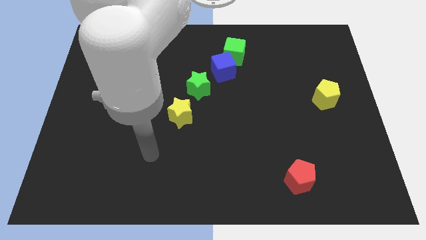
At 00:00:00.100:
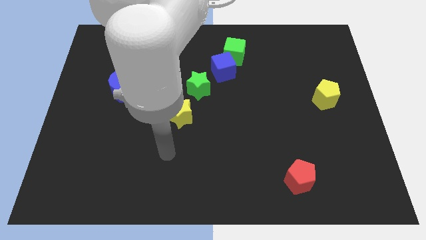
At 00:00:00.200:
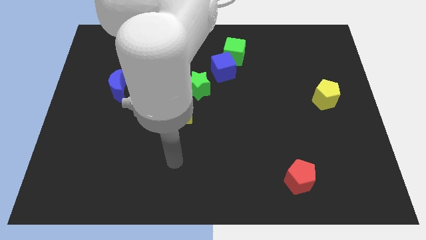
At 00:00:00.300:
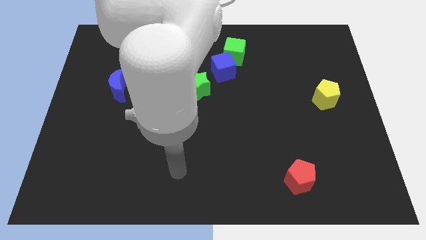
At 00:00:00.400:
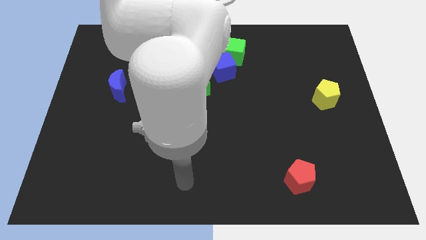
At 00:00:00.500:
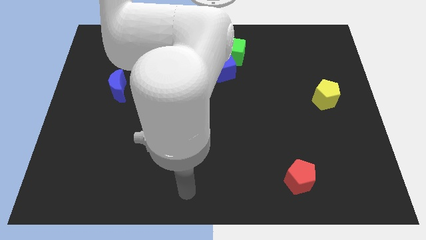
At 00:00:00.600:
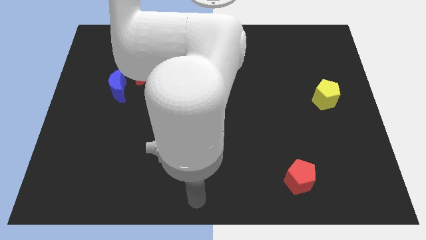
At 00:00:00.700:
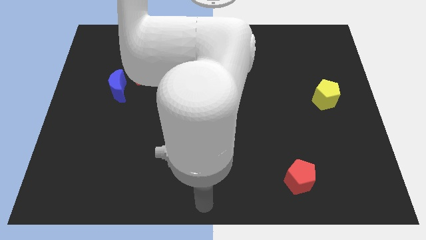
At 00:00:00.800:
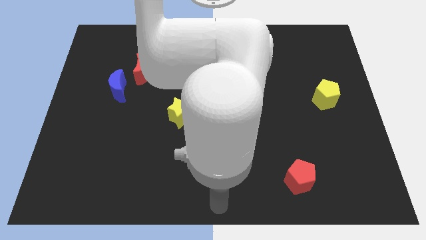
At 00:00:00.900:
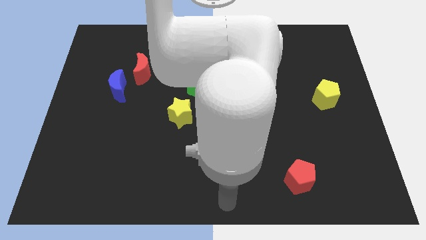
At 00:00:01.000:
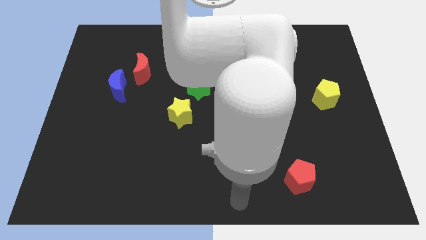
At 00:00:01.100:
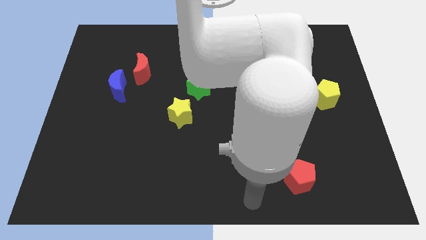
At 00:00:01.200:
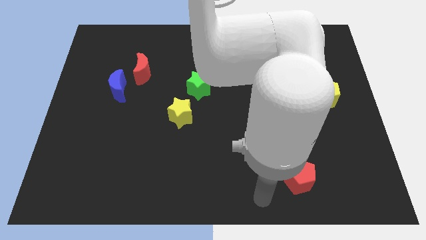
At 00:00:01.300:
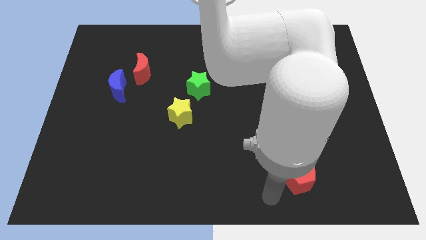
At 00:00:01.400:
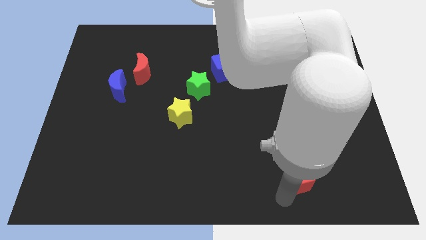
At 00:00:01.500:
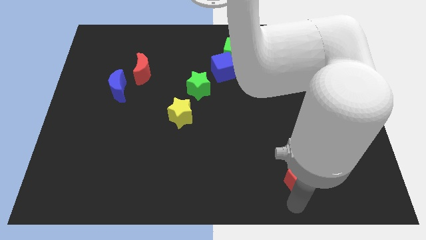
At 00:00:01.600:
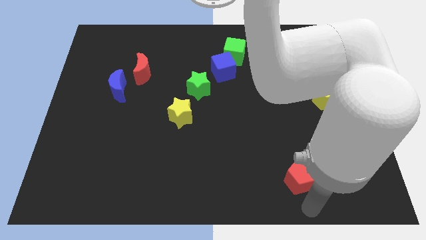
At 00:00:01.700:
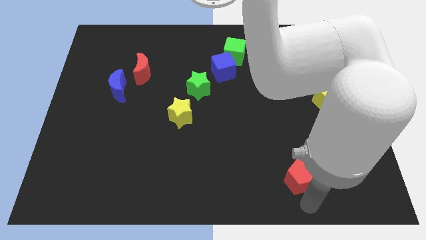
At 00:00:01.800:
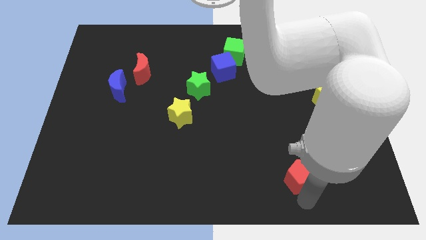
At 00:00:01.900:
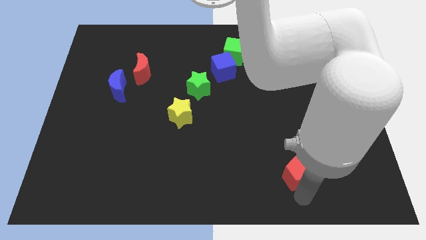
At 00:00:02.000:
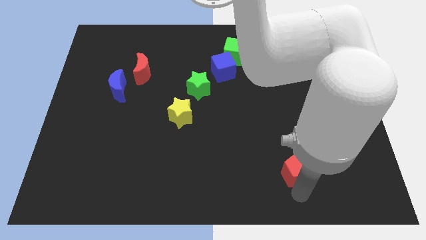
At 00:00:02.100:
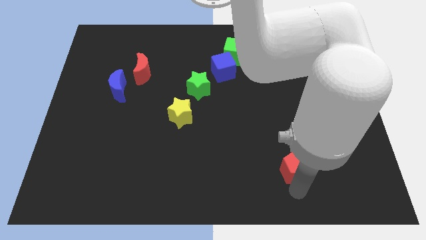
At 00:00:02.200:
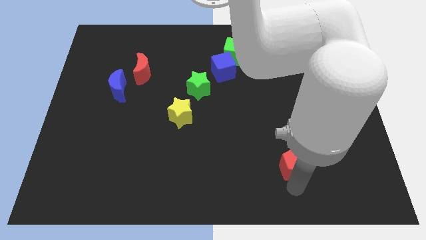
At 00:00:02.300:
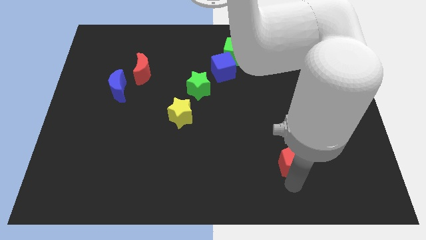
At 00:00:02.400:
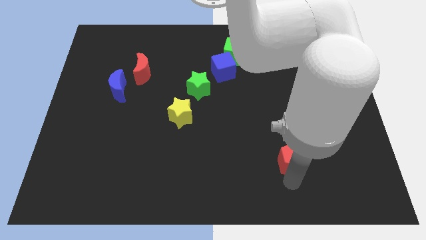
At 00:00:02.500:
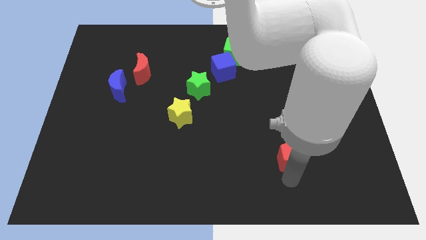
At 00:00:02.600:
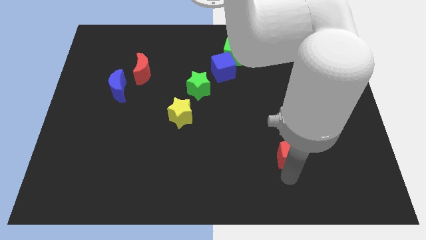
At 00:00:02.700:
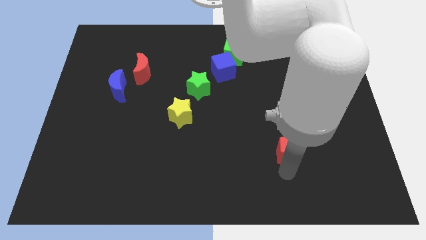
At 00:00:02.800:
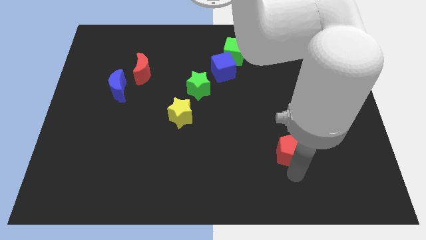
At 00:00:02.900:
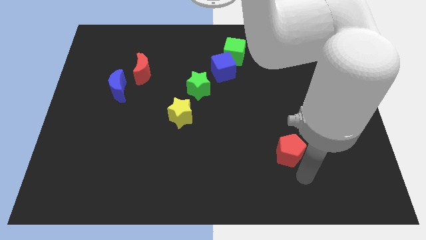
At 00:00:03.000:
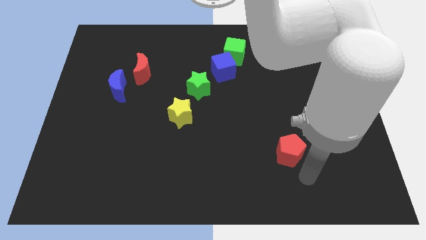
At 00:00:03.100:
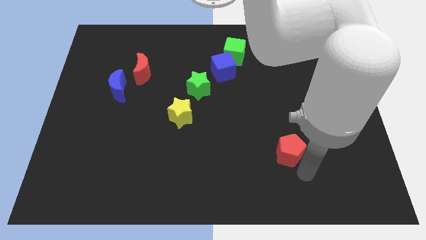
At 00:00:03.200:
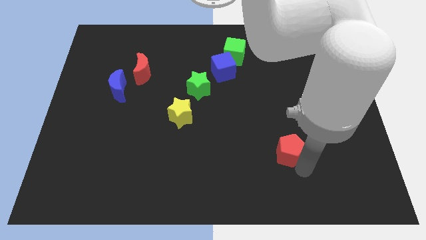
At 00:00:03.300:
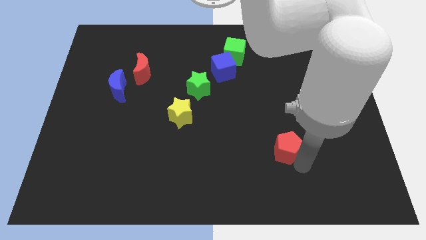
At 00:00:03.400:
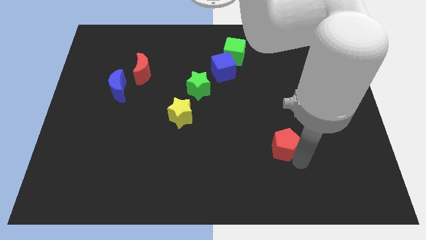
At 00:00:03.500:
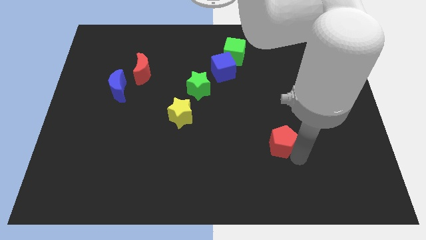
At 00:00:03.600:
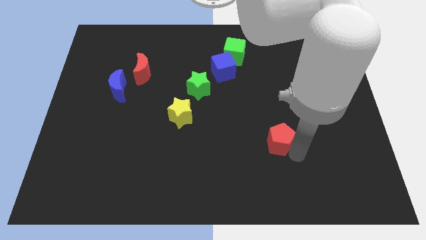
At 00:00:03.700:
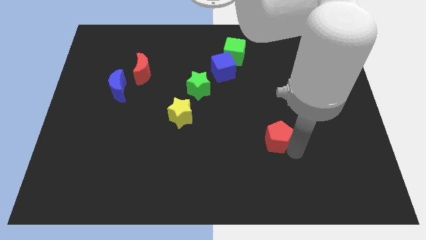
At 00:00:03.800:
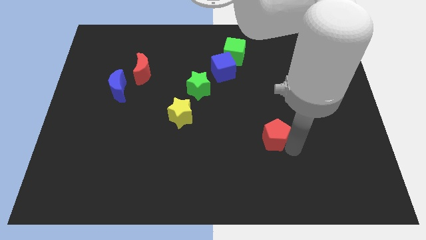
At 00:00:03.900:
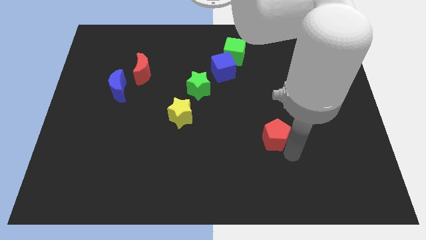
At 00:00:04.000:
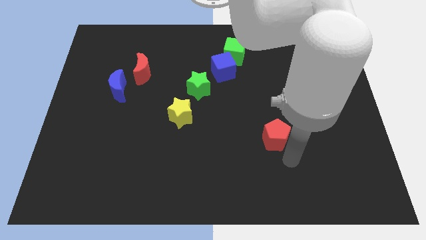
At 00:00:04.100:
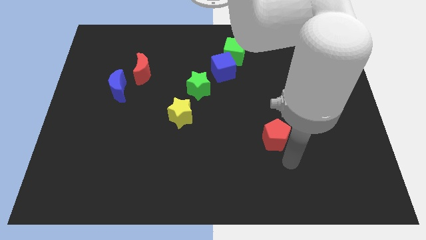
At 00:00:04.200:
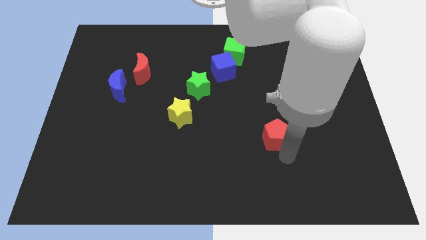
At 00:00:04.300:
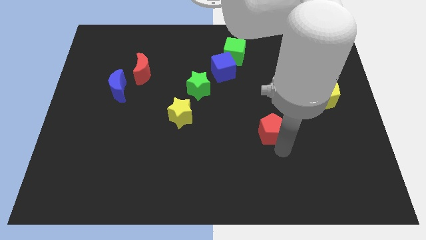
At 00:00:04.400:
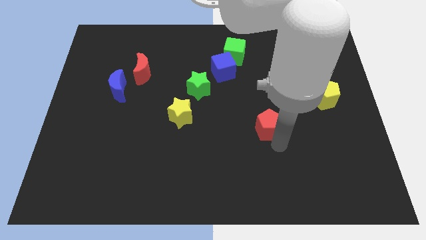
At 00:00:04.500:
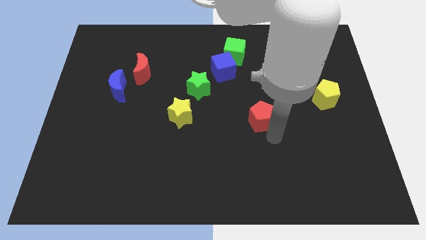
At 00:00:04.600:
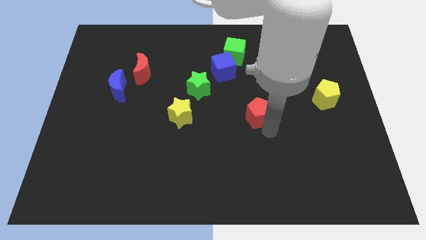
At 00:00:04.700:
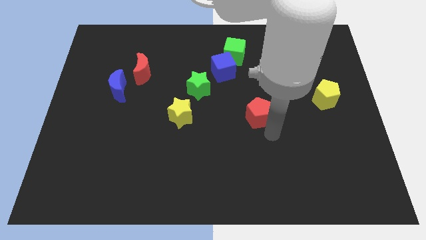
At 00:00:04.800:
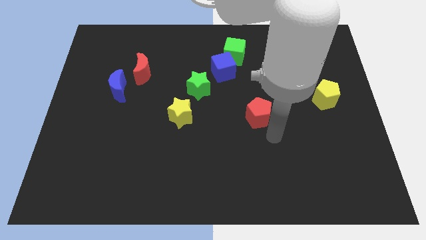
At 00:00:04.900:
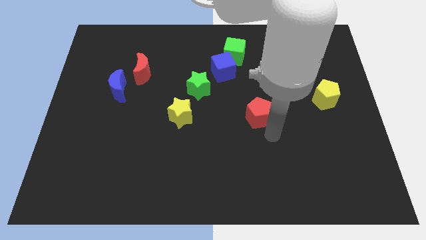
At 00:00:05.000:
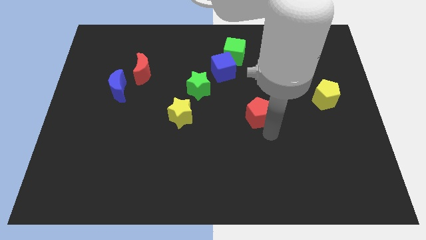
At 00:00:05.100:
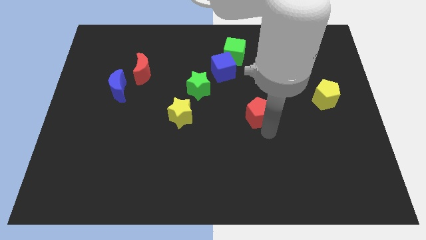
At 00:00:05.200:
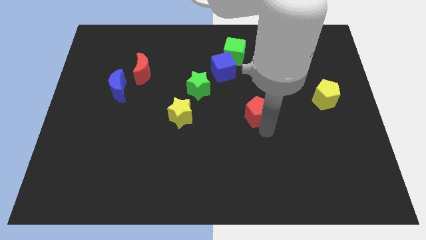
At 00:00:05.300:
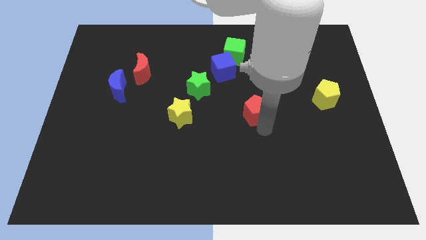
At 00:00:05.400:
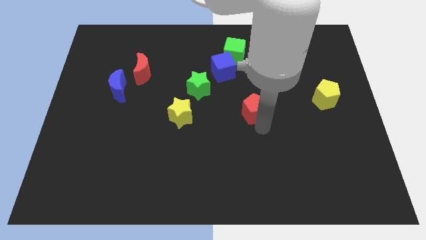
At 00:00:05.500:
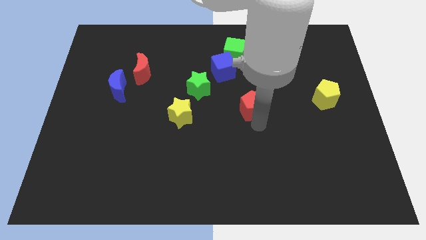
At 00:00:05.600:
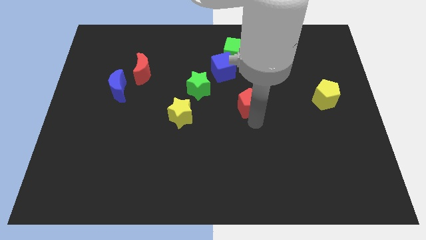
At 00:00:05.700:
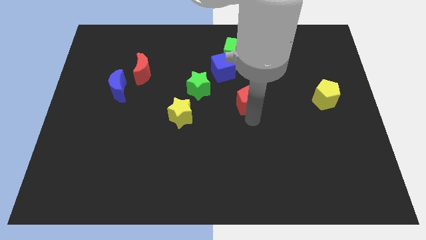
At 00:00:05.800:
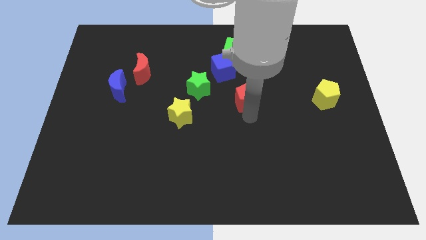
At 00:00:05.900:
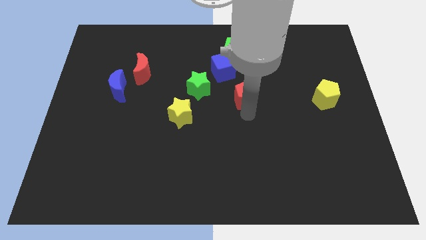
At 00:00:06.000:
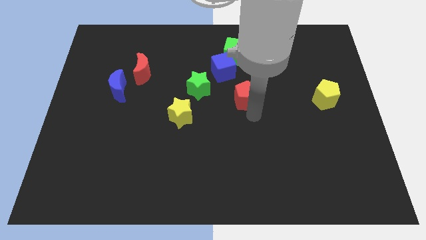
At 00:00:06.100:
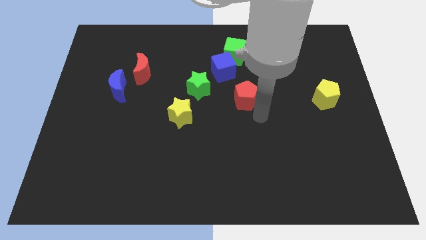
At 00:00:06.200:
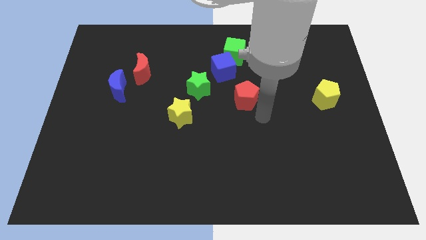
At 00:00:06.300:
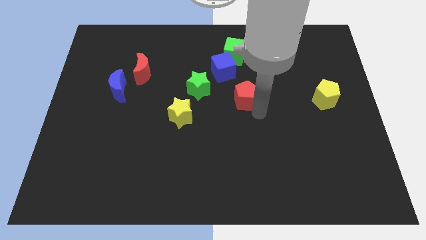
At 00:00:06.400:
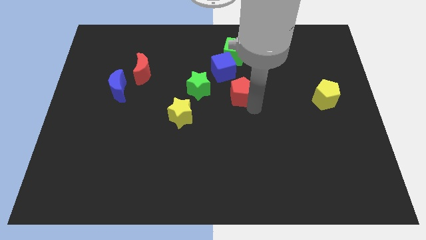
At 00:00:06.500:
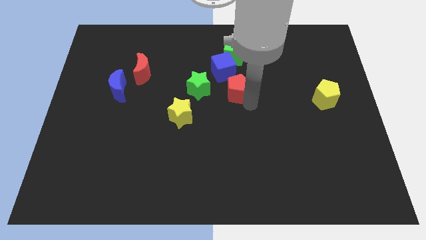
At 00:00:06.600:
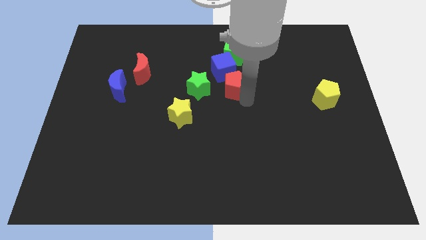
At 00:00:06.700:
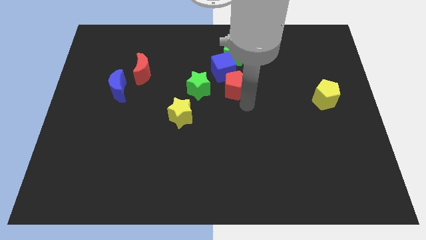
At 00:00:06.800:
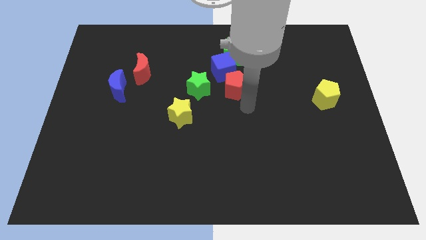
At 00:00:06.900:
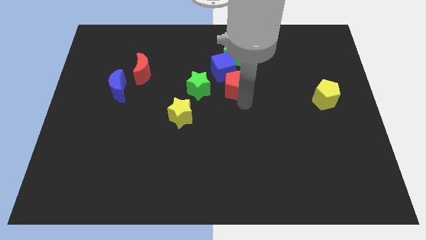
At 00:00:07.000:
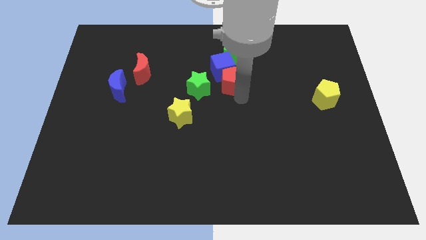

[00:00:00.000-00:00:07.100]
push the red pentagon close to the blue cube

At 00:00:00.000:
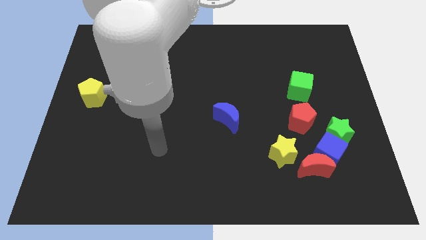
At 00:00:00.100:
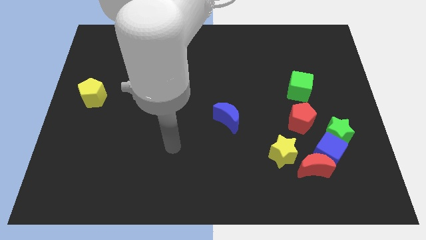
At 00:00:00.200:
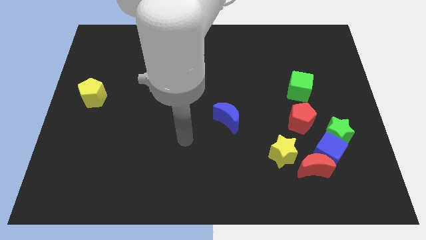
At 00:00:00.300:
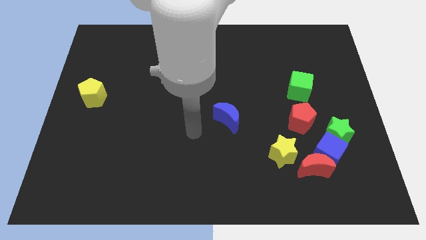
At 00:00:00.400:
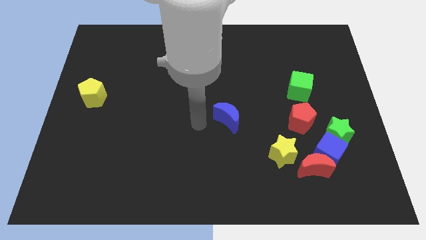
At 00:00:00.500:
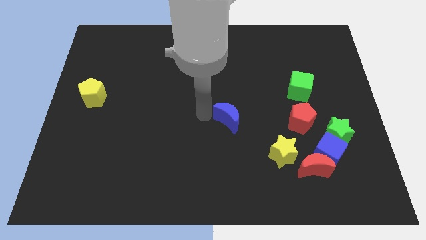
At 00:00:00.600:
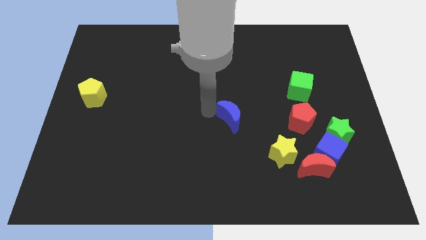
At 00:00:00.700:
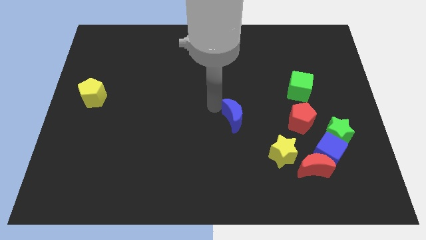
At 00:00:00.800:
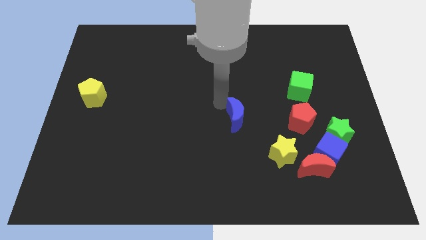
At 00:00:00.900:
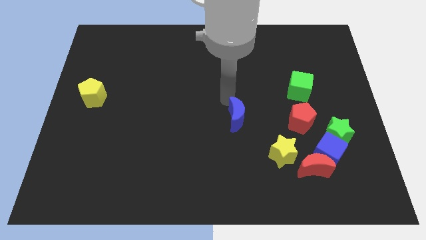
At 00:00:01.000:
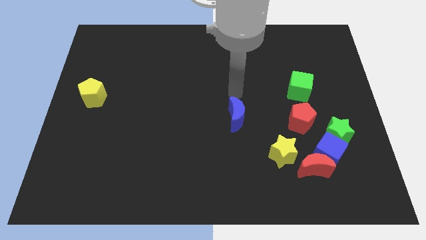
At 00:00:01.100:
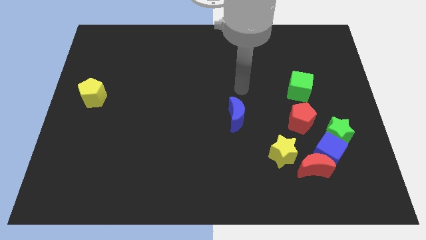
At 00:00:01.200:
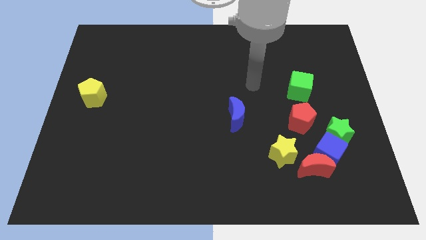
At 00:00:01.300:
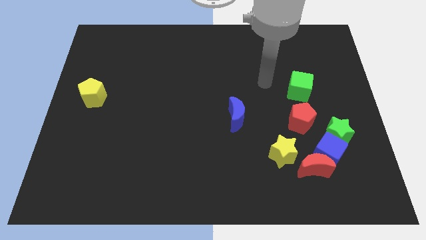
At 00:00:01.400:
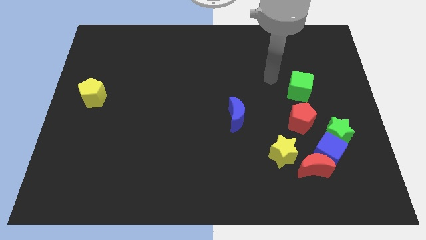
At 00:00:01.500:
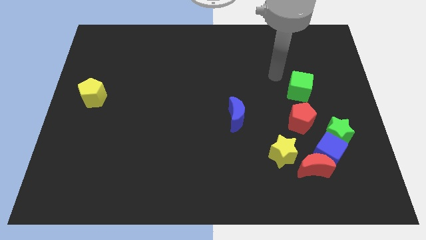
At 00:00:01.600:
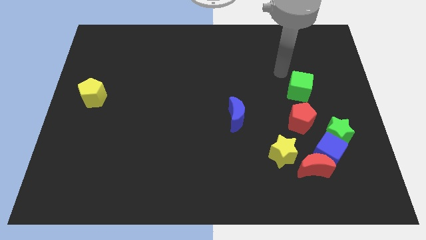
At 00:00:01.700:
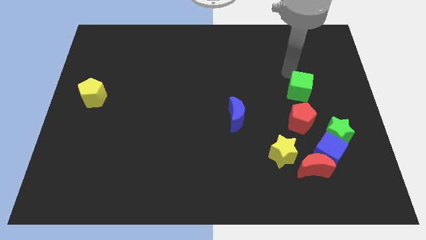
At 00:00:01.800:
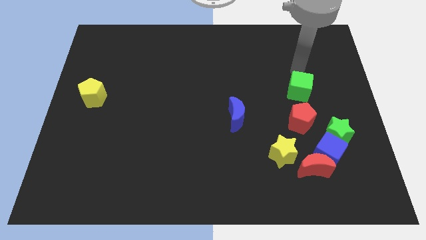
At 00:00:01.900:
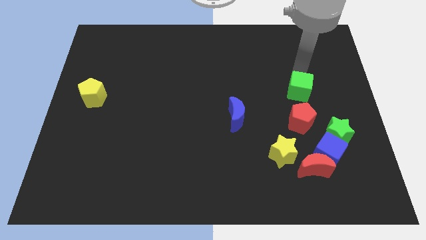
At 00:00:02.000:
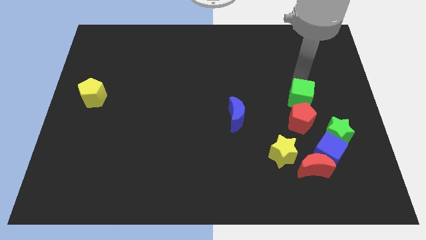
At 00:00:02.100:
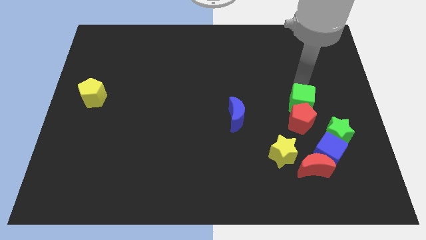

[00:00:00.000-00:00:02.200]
slide the green cube next to the red pentagon
